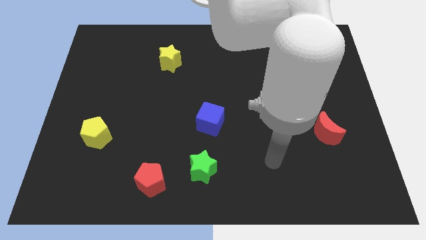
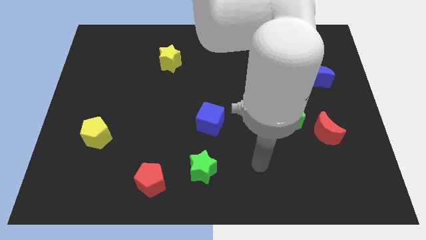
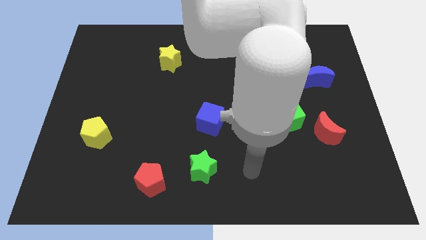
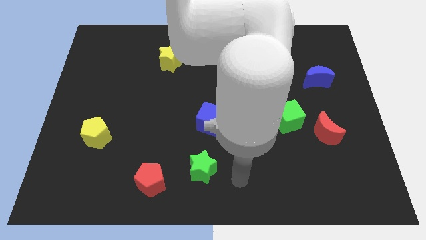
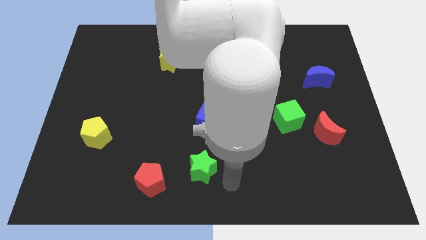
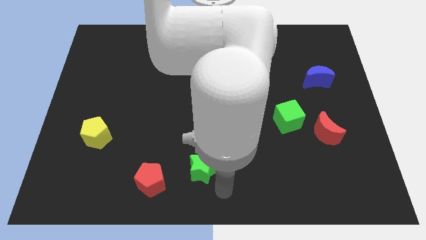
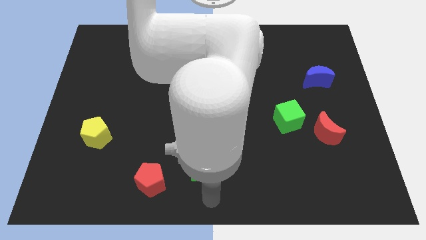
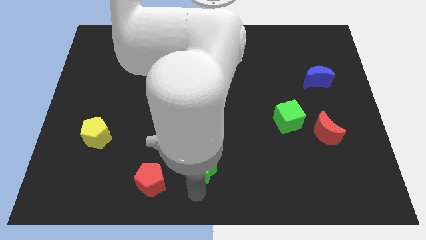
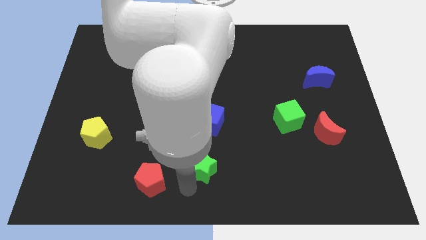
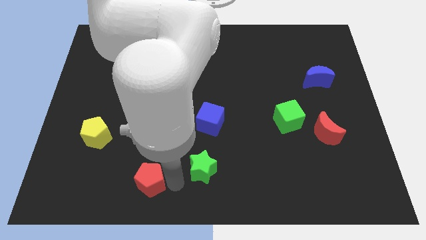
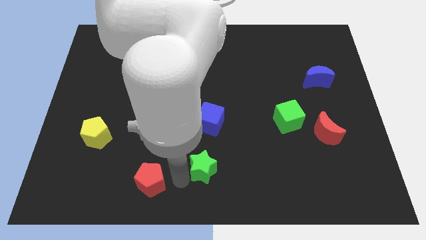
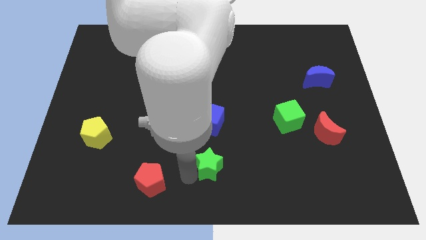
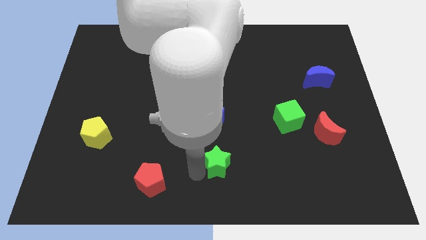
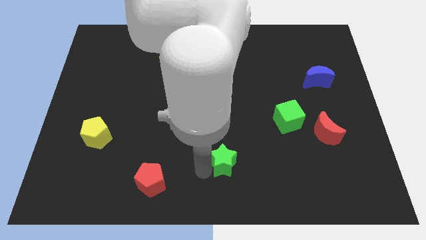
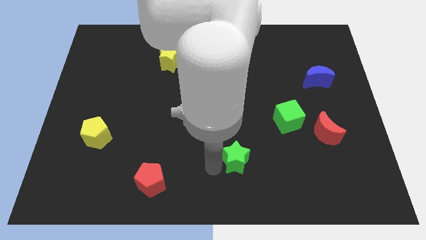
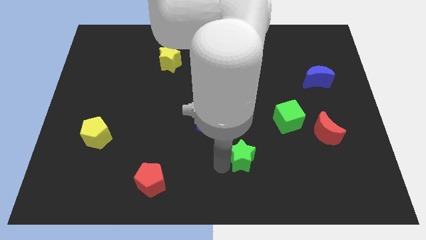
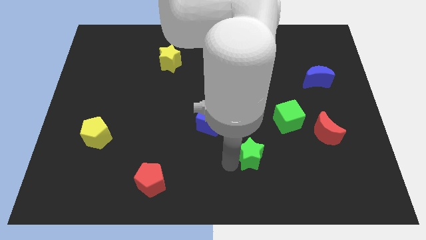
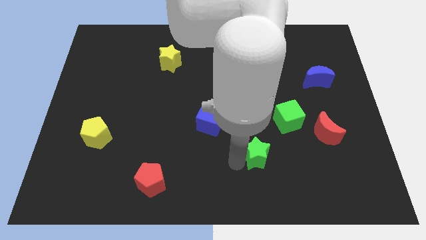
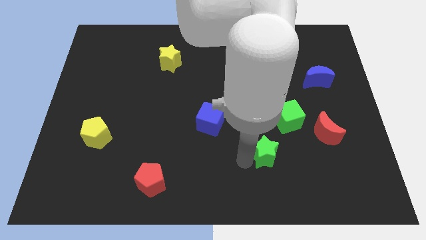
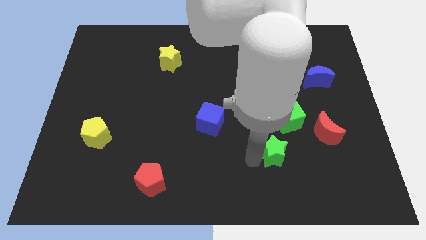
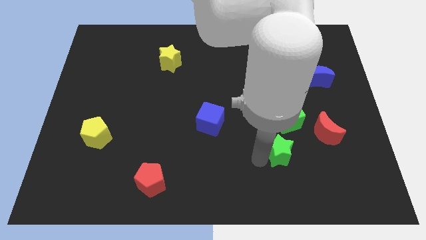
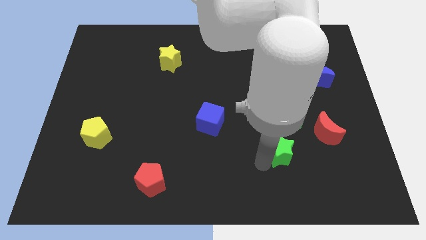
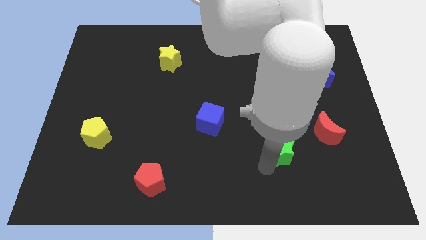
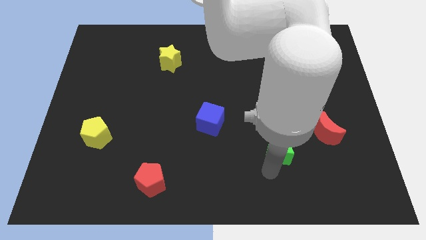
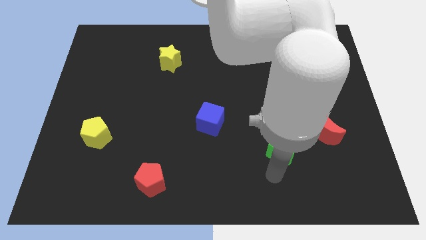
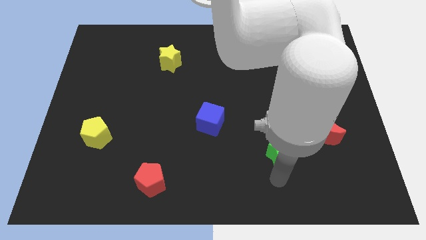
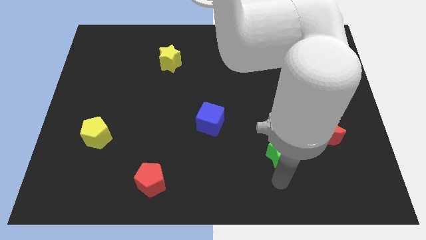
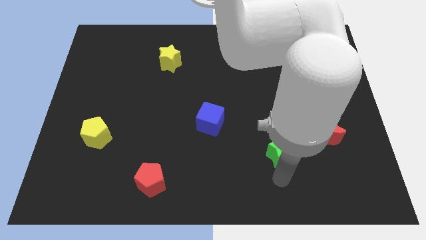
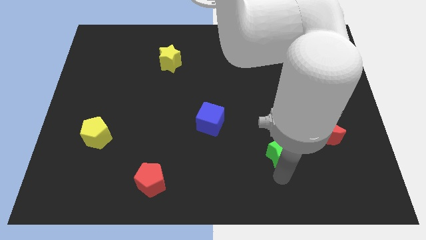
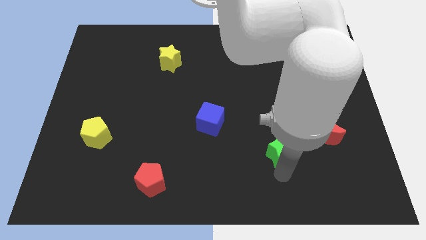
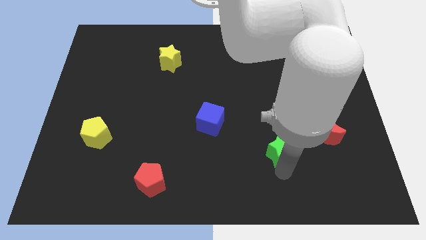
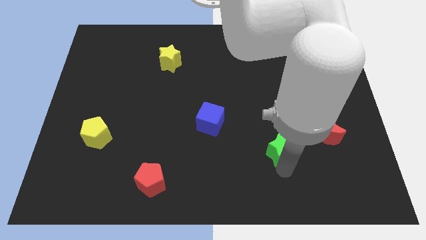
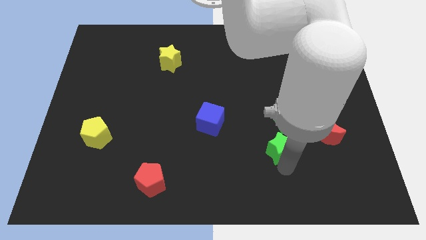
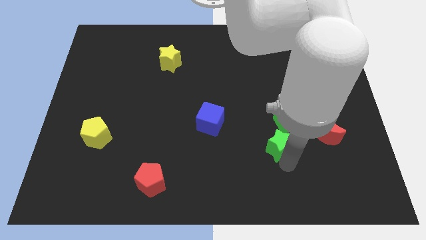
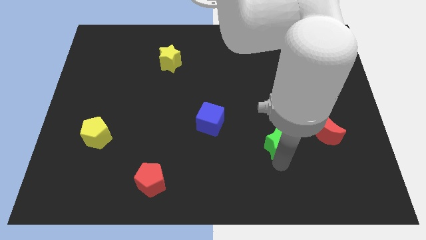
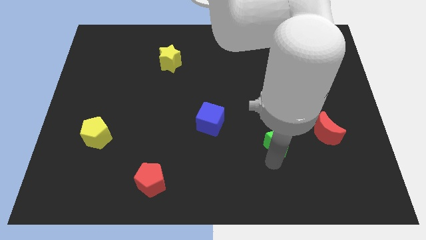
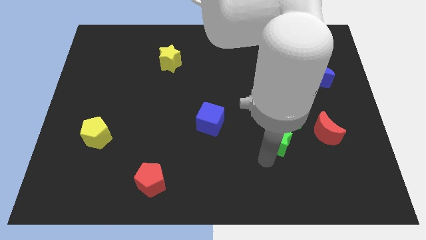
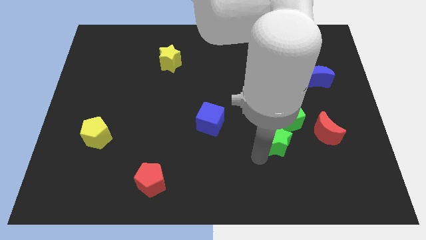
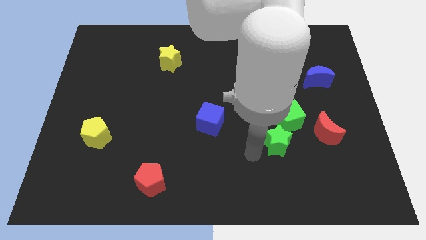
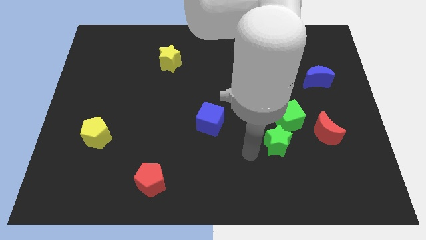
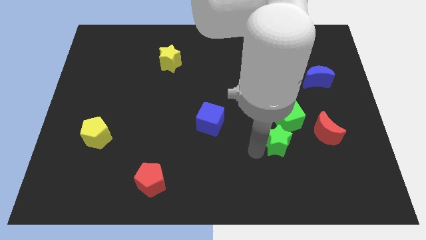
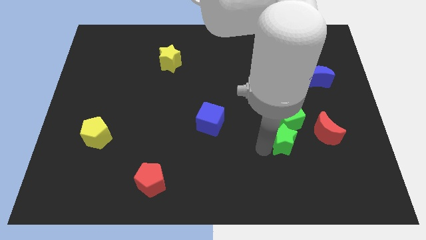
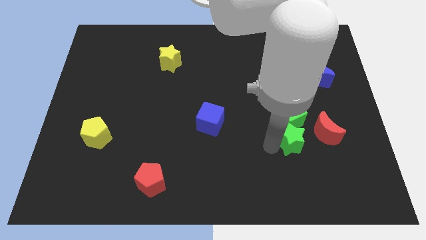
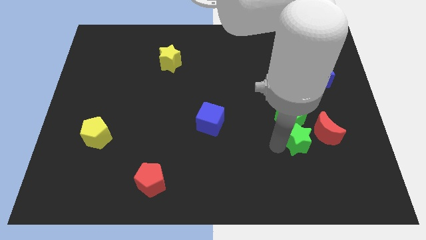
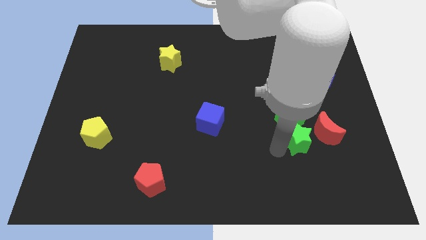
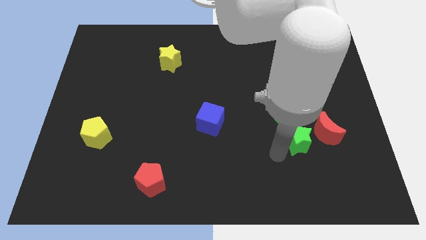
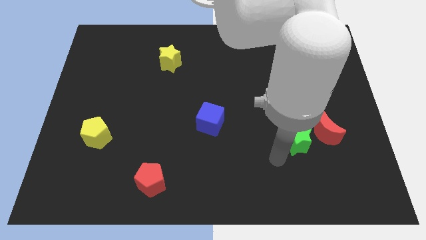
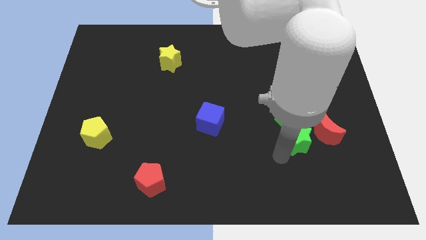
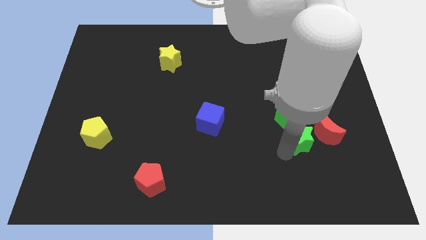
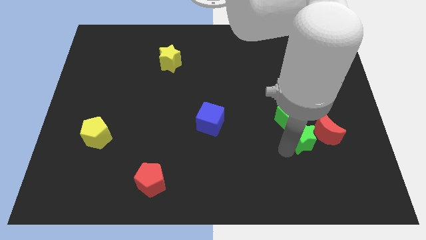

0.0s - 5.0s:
push the green star close to the red moon

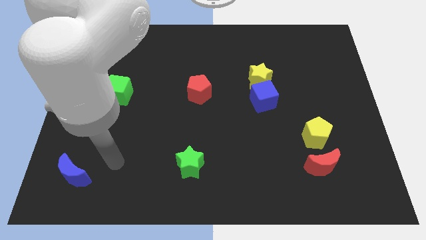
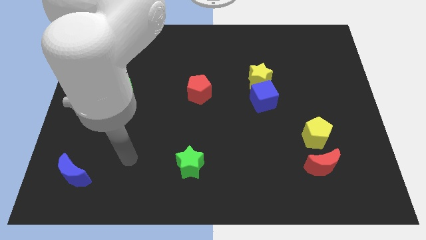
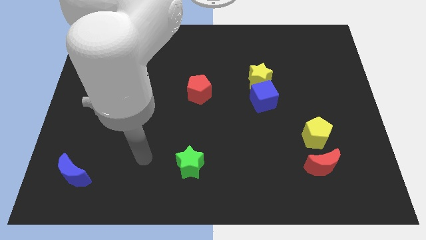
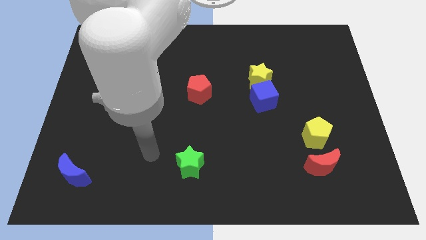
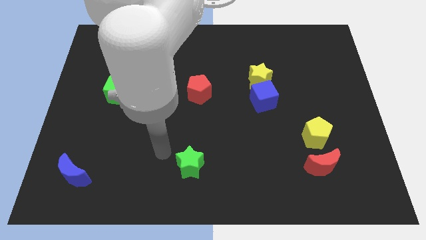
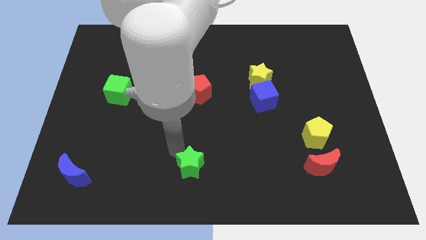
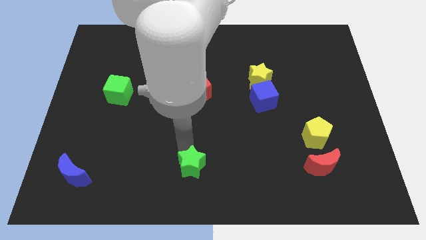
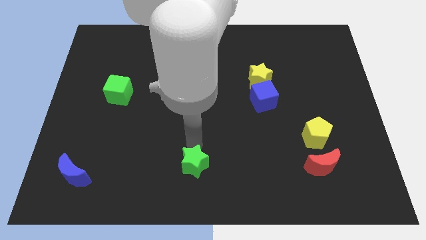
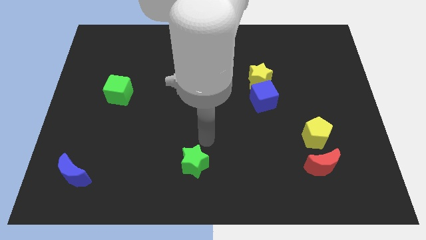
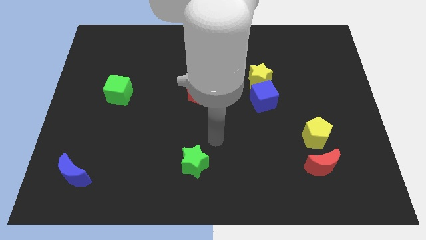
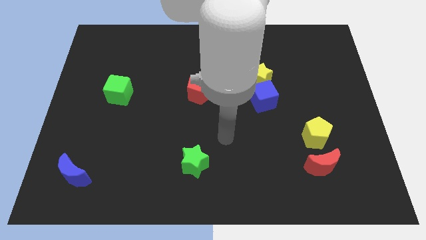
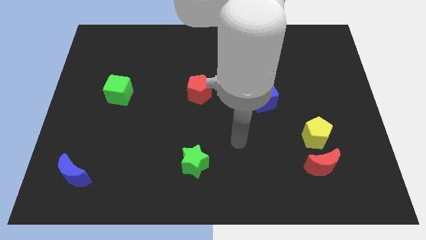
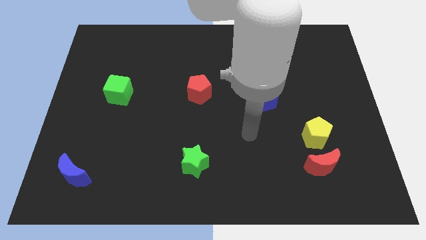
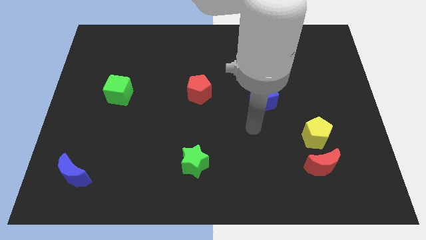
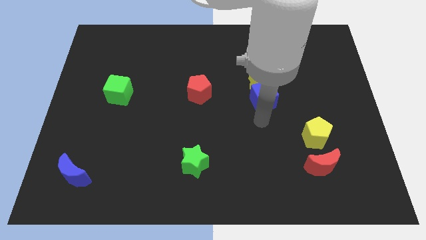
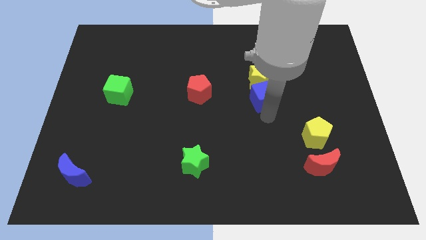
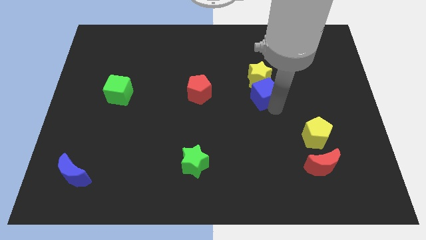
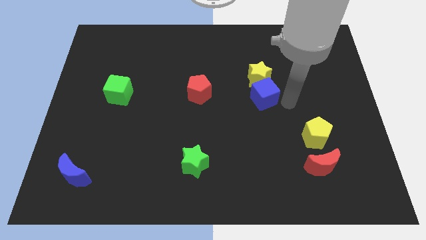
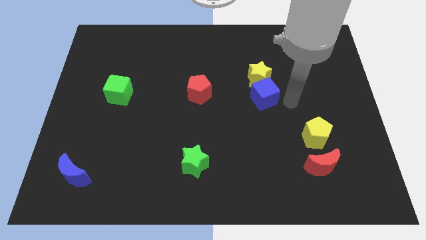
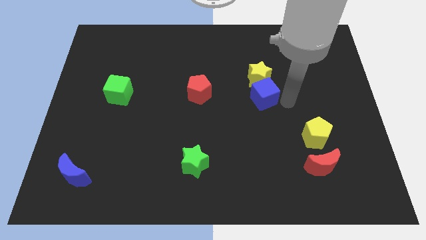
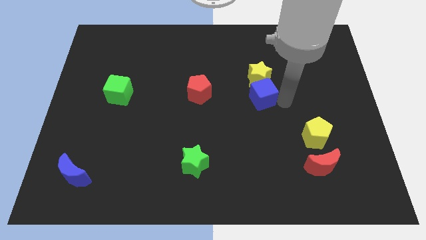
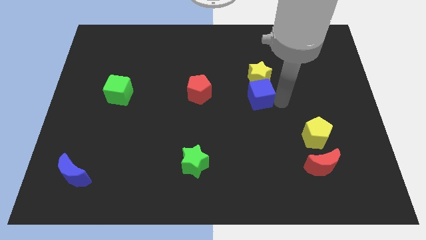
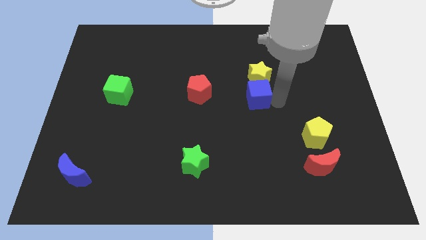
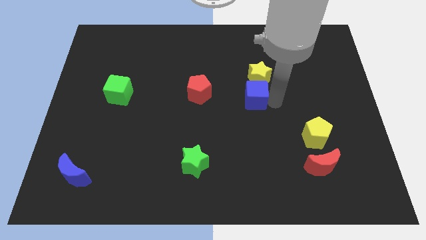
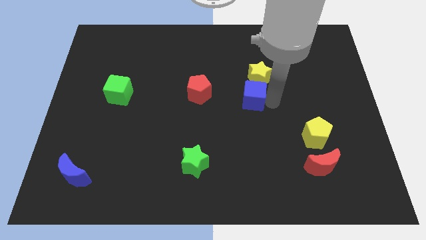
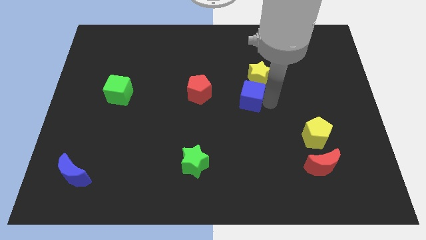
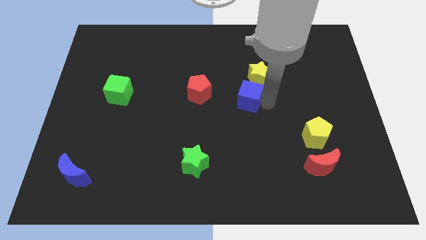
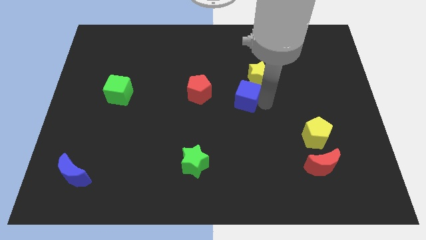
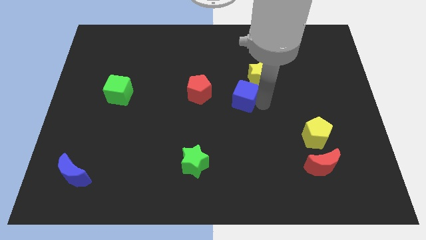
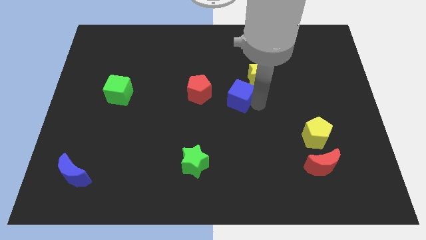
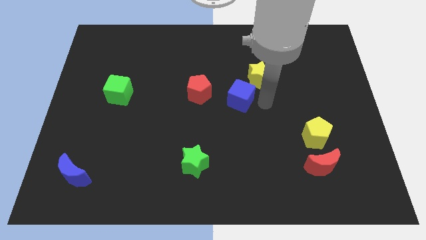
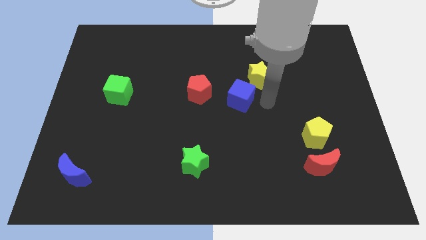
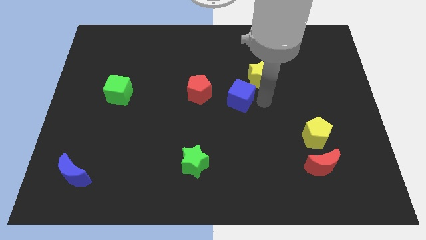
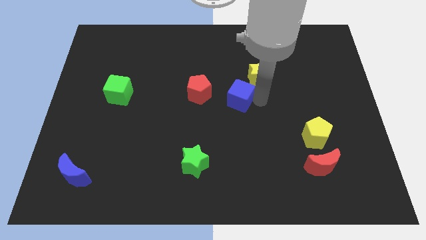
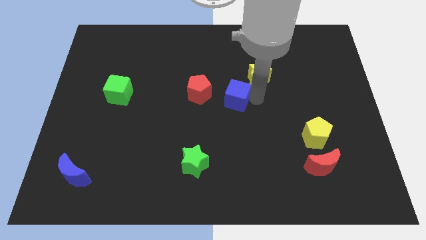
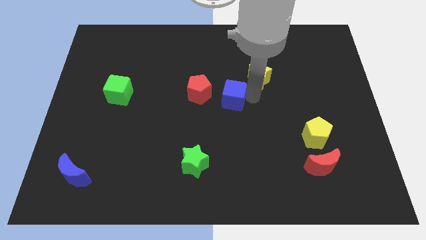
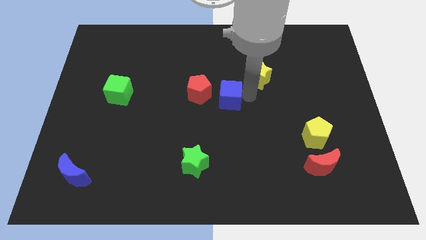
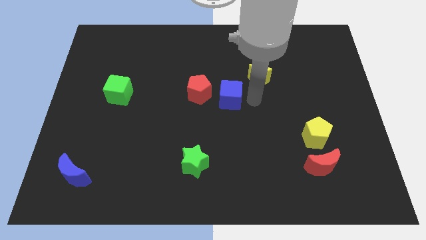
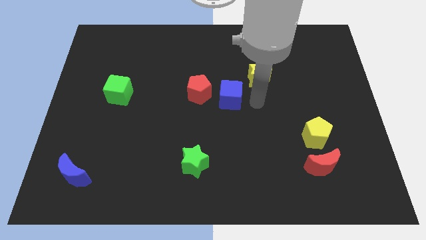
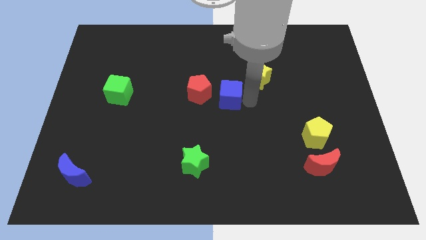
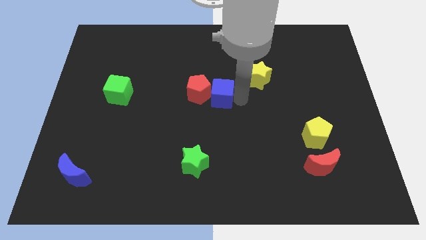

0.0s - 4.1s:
put the blue cube next to the red pentagon
